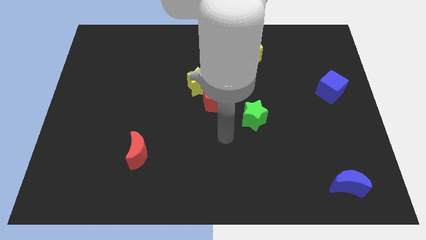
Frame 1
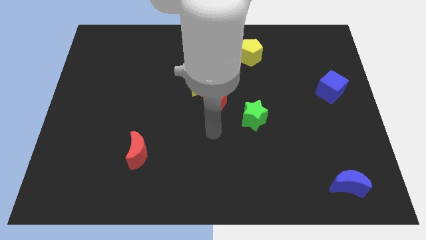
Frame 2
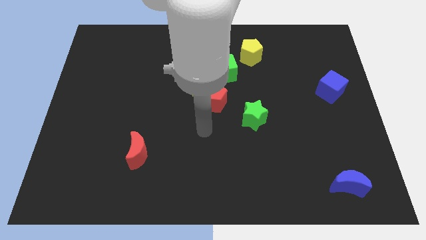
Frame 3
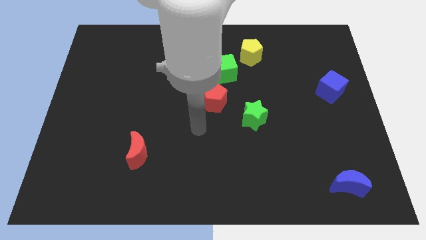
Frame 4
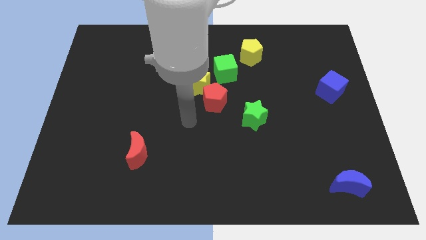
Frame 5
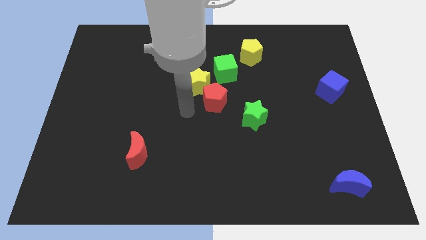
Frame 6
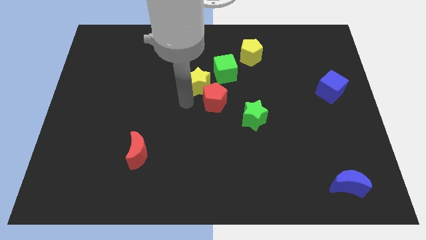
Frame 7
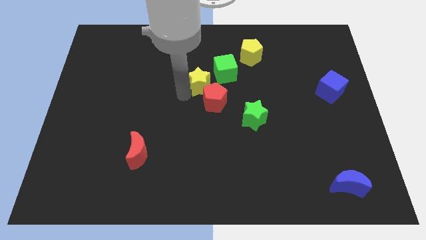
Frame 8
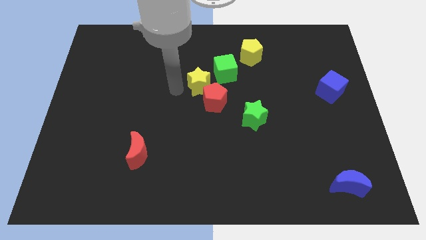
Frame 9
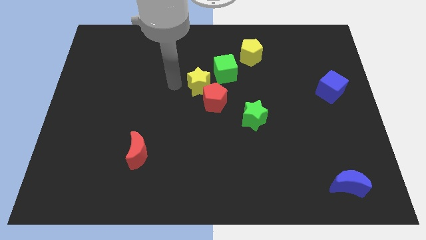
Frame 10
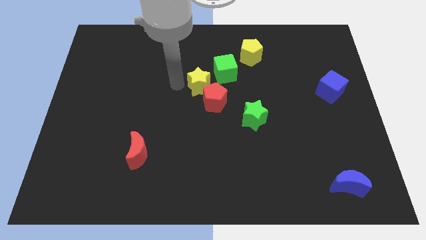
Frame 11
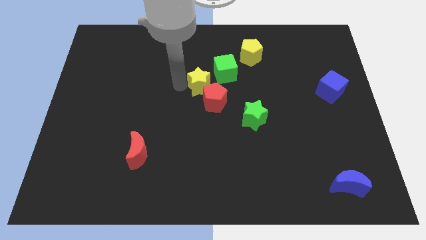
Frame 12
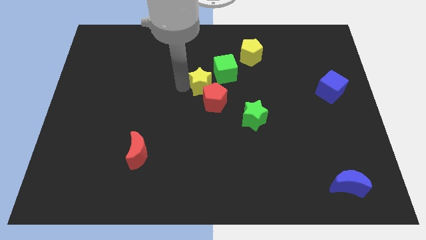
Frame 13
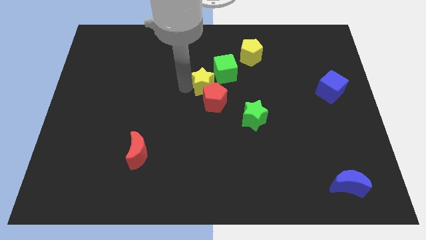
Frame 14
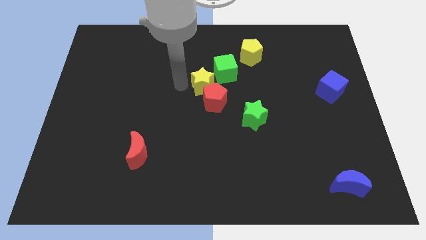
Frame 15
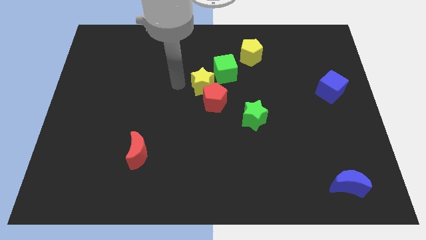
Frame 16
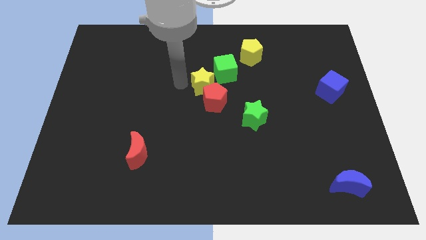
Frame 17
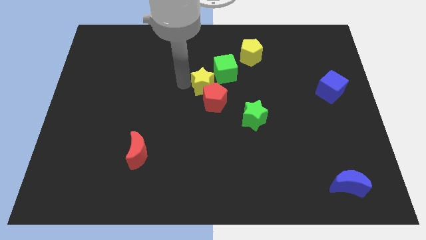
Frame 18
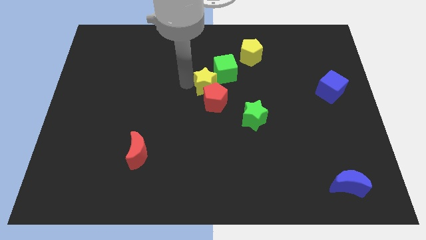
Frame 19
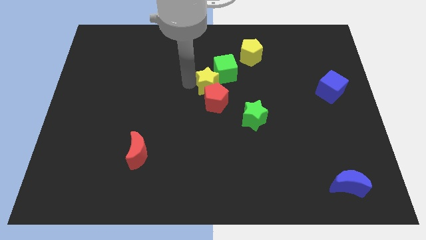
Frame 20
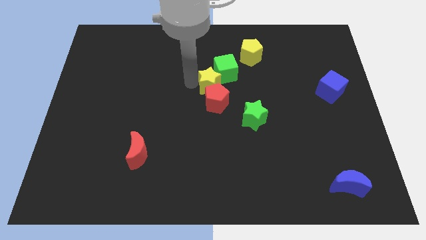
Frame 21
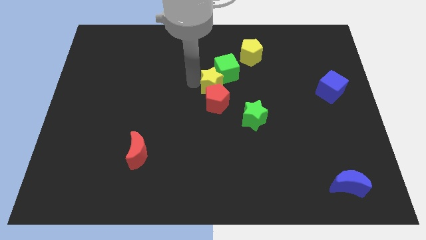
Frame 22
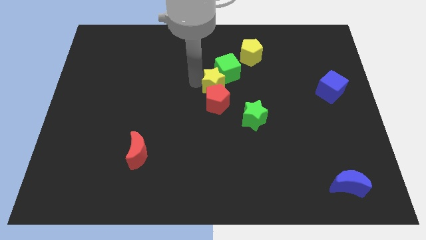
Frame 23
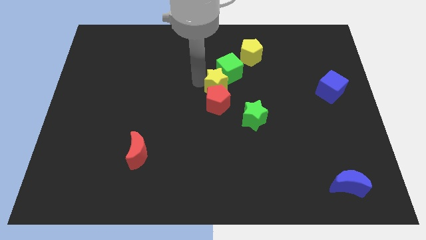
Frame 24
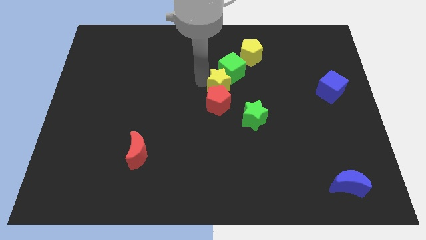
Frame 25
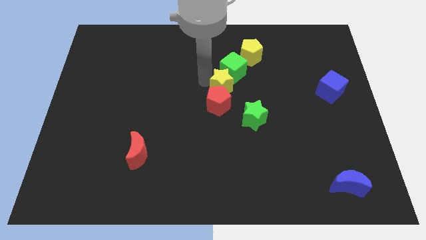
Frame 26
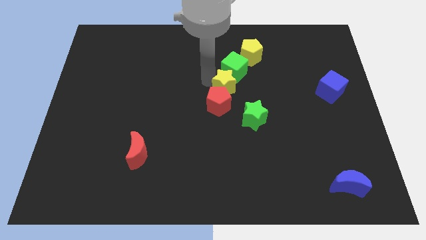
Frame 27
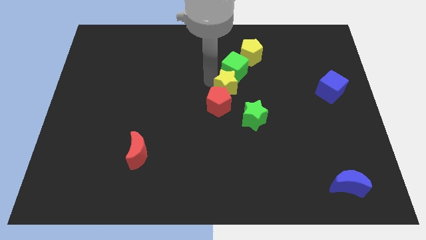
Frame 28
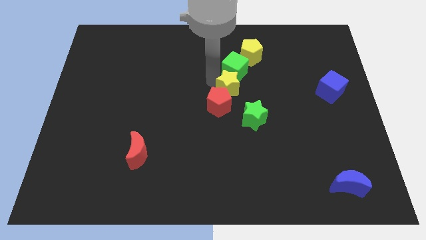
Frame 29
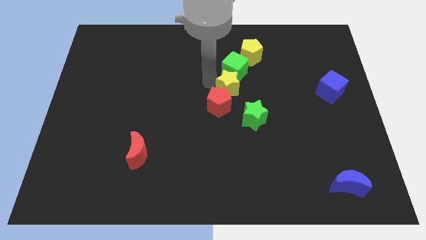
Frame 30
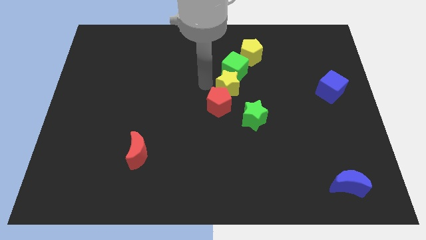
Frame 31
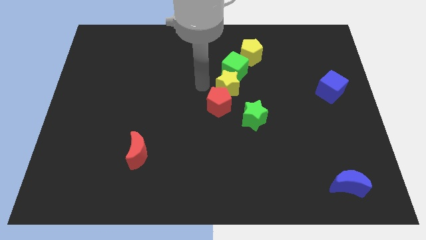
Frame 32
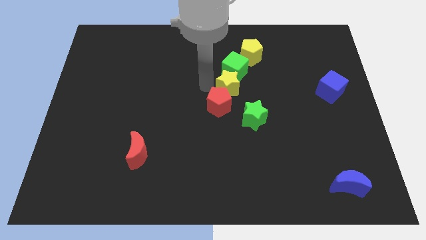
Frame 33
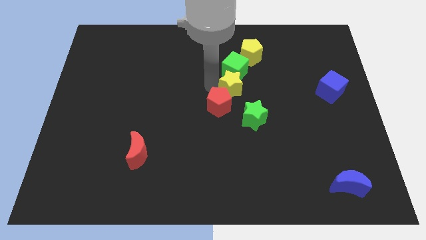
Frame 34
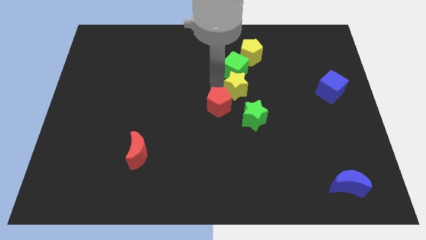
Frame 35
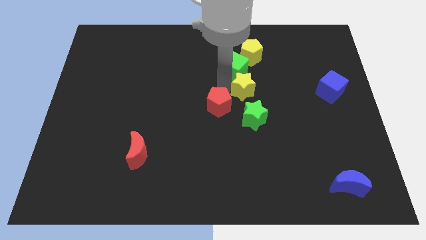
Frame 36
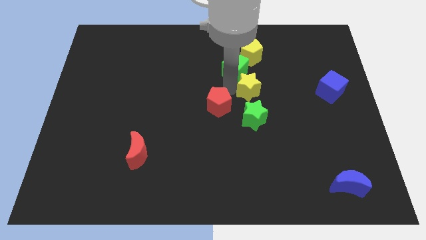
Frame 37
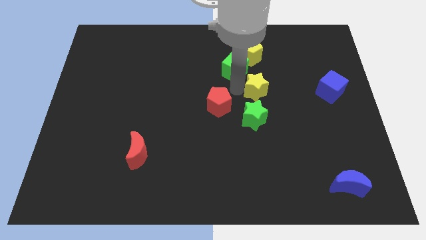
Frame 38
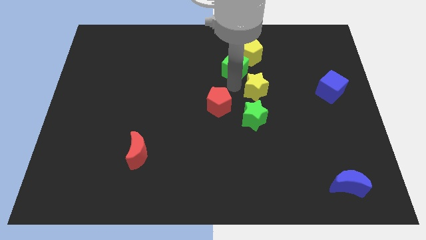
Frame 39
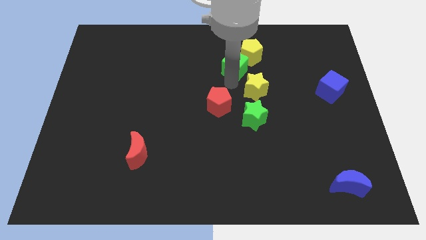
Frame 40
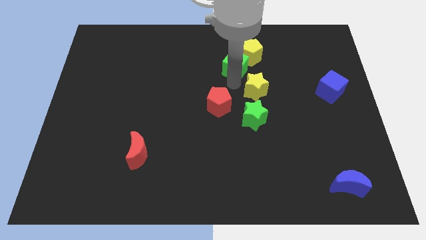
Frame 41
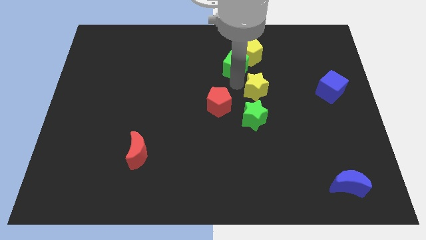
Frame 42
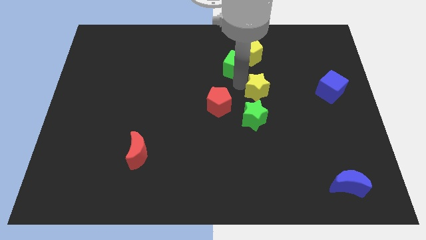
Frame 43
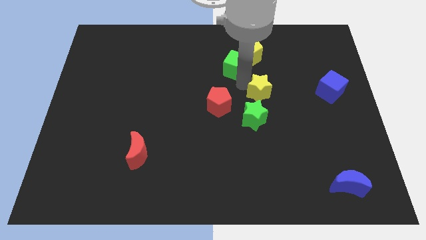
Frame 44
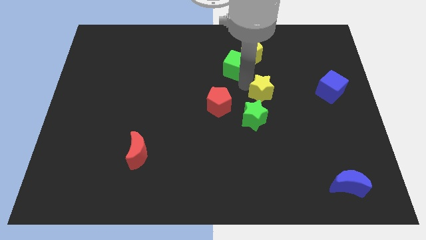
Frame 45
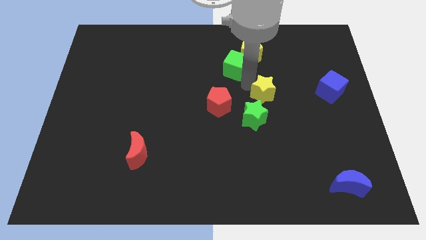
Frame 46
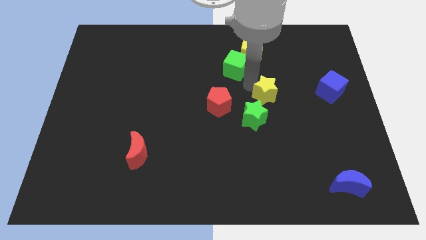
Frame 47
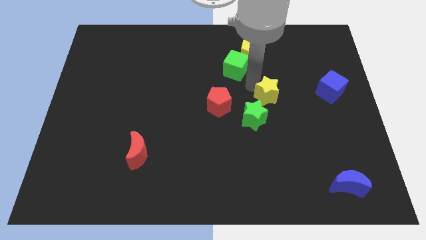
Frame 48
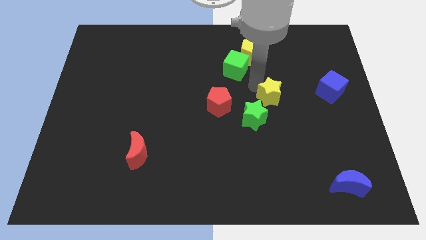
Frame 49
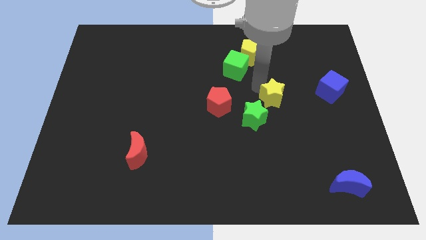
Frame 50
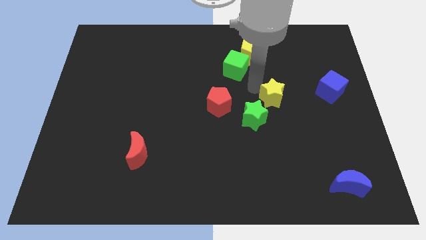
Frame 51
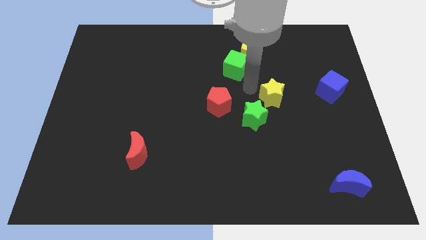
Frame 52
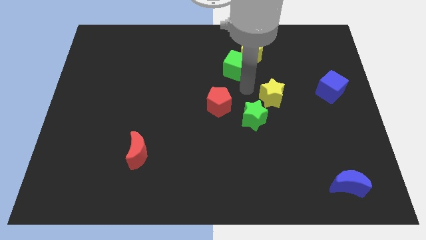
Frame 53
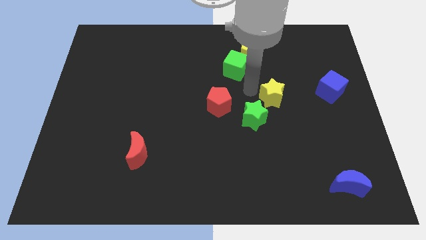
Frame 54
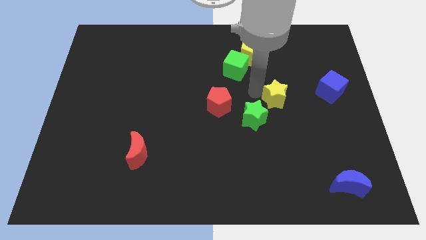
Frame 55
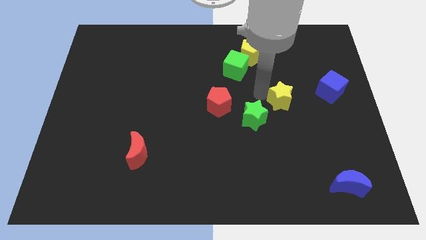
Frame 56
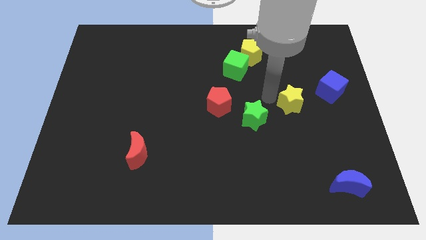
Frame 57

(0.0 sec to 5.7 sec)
slide the yellow star diagonally down and to the left of the blue cube

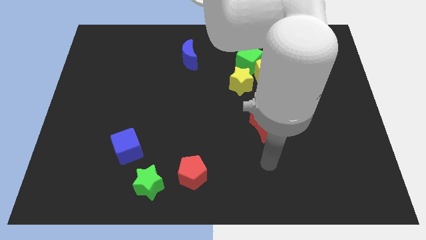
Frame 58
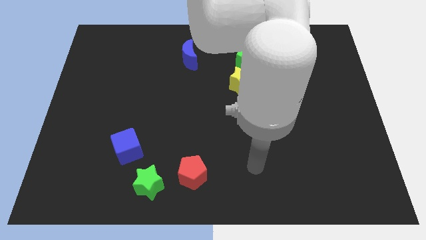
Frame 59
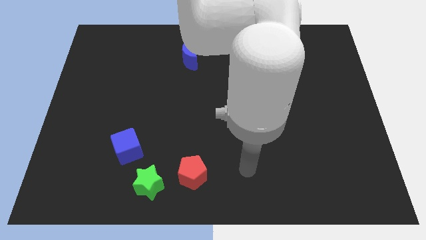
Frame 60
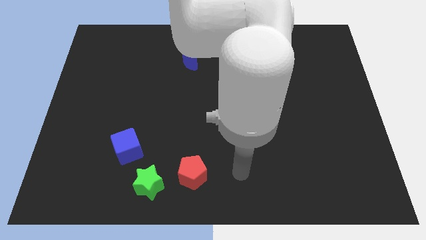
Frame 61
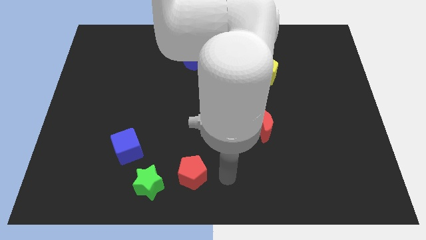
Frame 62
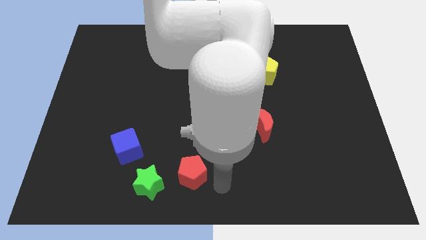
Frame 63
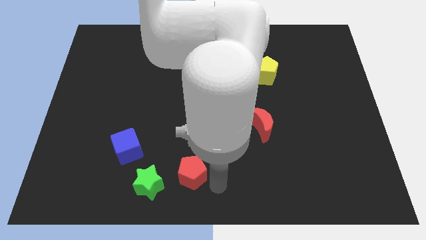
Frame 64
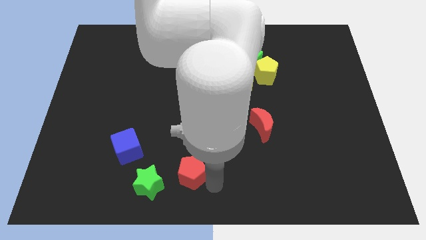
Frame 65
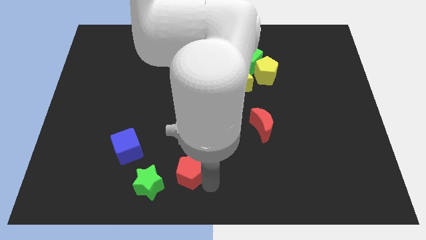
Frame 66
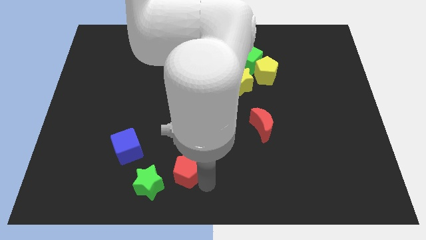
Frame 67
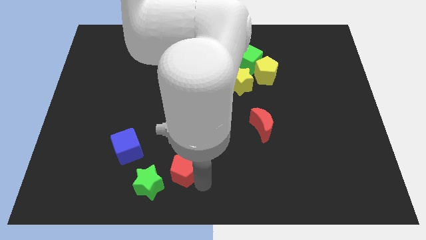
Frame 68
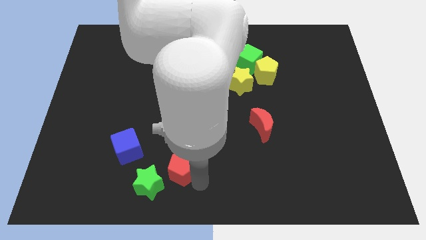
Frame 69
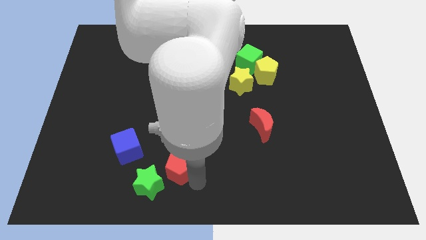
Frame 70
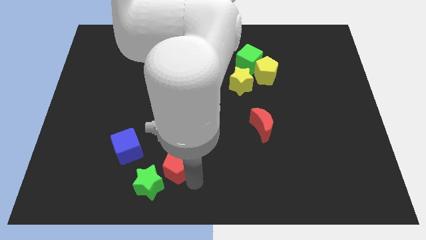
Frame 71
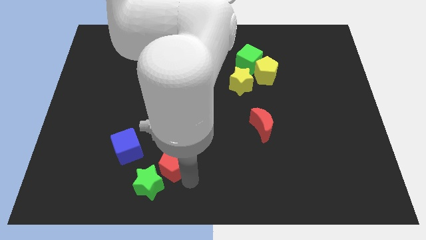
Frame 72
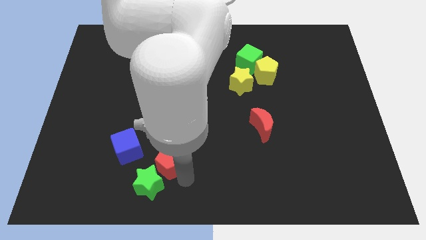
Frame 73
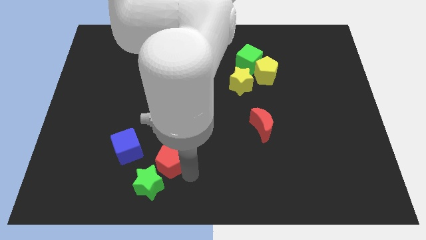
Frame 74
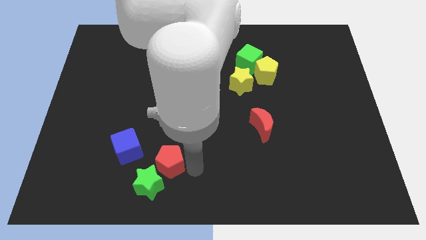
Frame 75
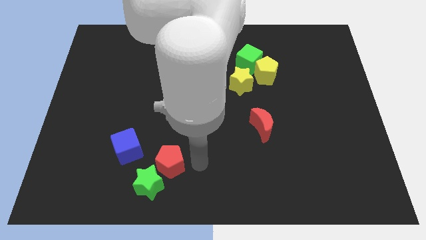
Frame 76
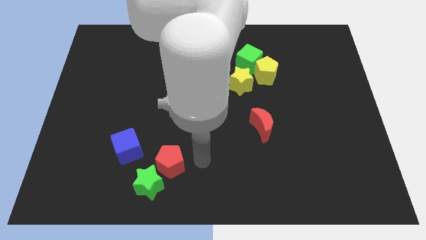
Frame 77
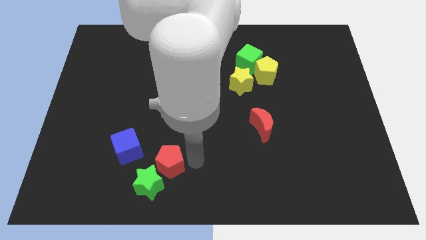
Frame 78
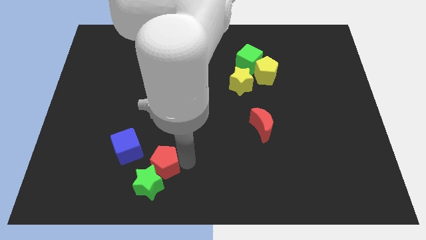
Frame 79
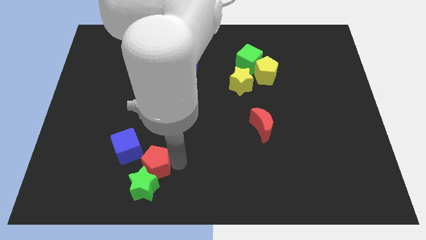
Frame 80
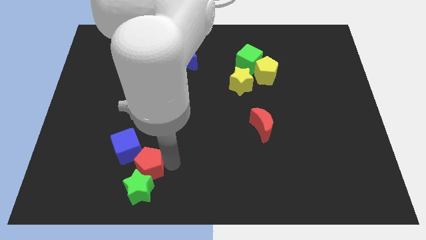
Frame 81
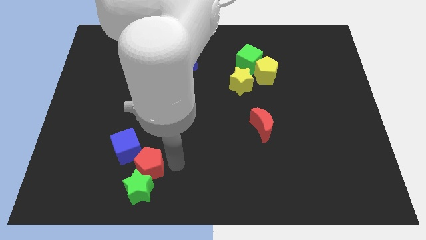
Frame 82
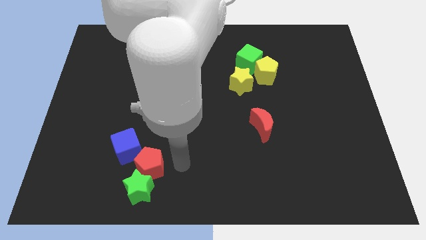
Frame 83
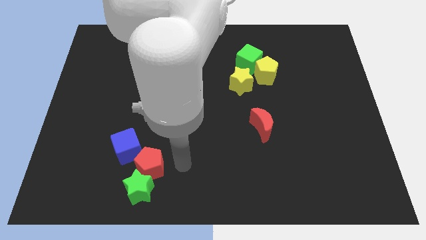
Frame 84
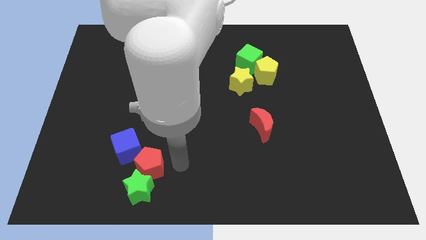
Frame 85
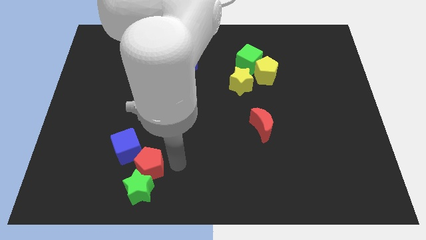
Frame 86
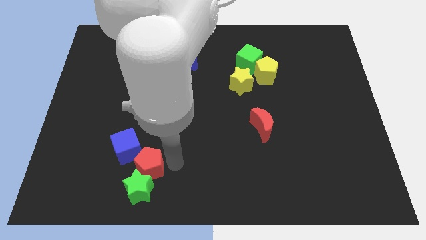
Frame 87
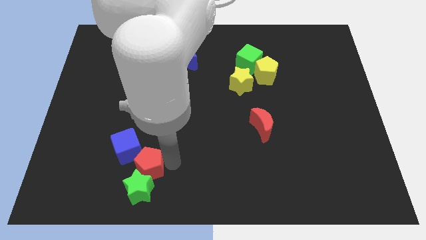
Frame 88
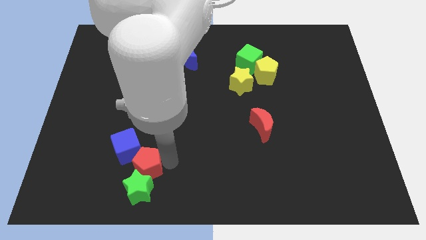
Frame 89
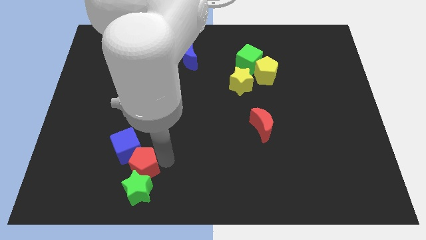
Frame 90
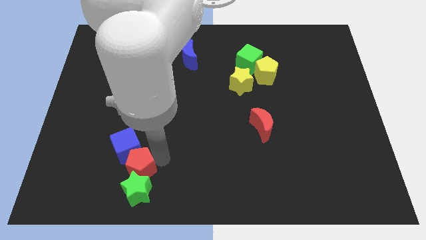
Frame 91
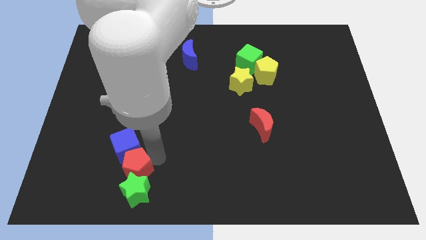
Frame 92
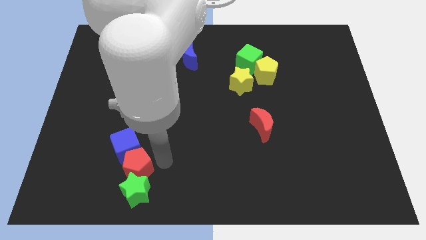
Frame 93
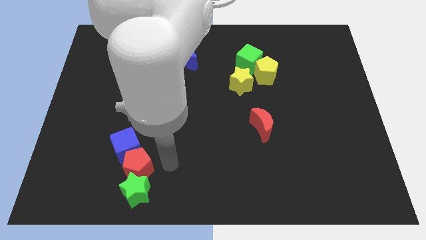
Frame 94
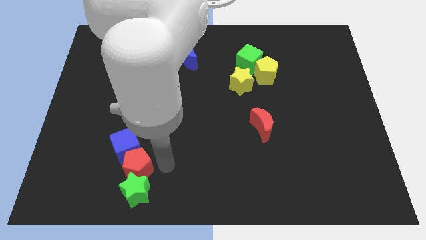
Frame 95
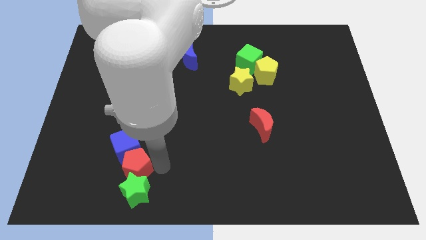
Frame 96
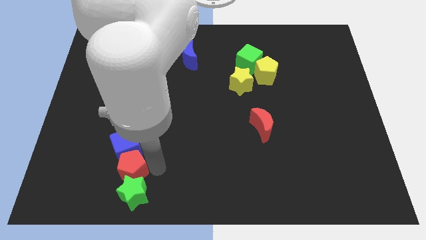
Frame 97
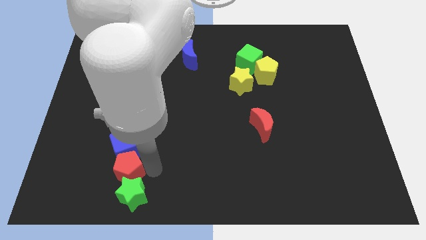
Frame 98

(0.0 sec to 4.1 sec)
put the red pentagon to the bottom left of the blue cube
